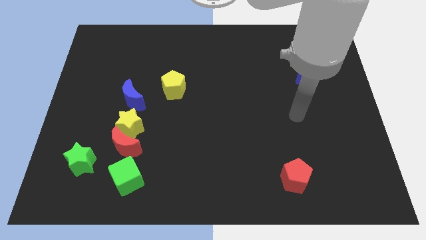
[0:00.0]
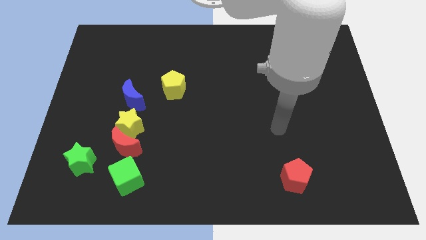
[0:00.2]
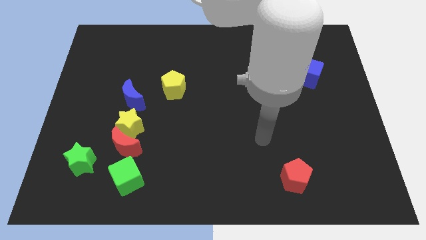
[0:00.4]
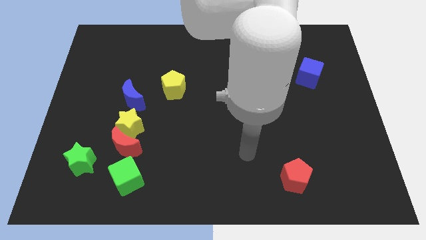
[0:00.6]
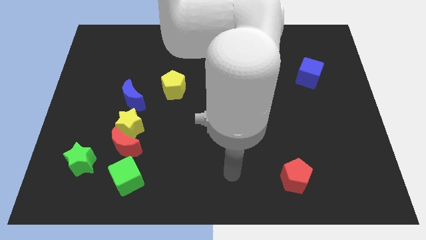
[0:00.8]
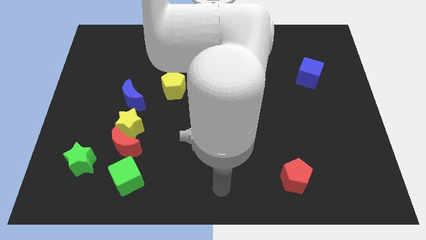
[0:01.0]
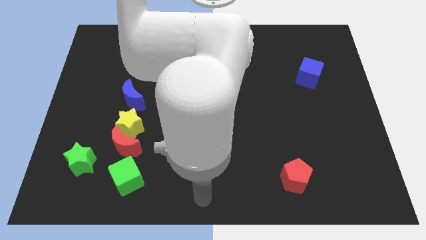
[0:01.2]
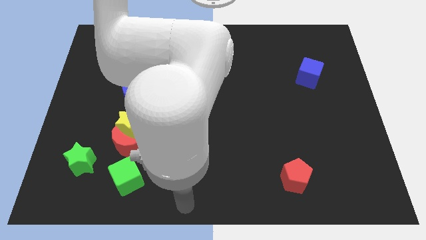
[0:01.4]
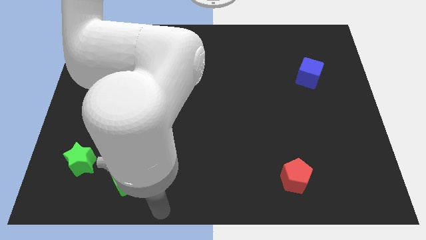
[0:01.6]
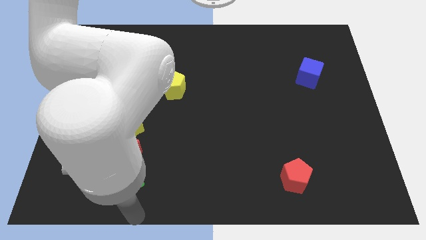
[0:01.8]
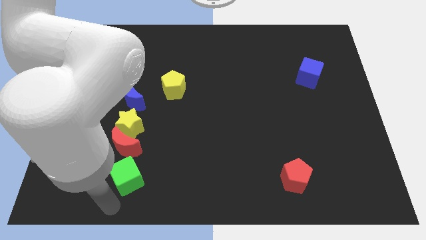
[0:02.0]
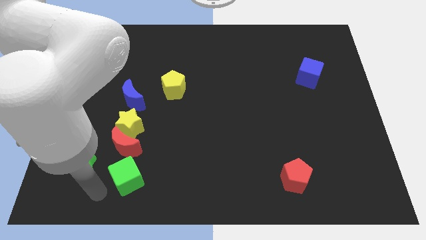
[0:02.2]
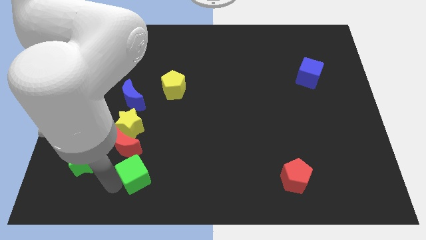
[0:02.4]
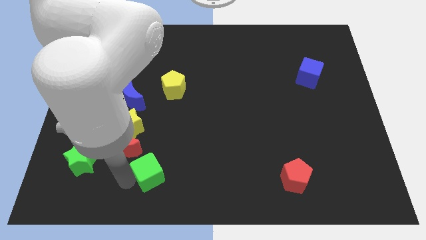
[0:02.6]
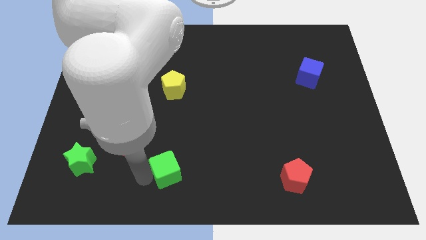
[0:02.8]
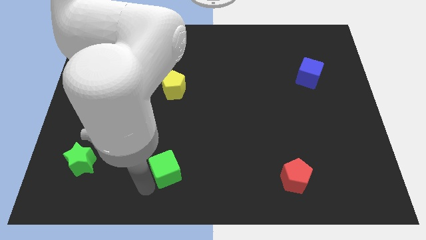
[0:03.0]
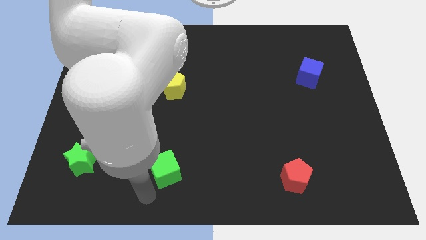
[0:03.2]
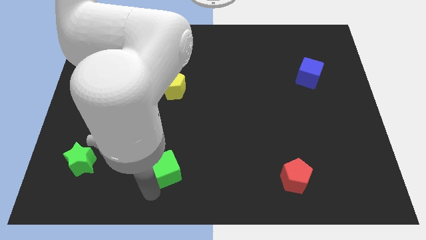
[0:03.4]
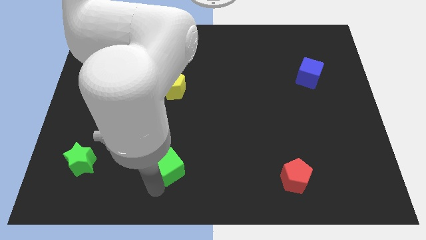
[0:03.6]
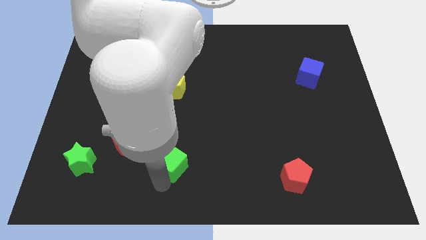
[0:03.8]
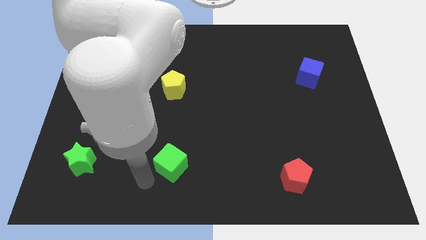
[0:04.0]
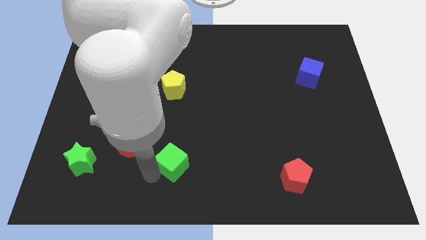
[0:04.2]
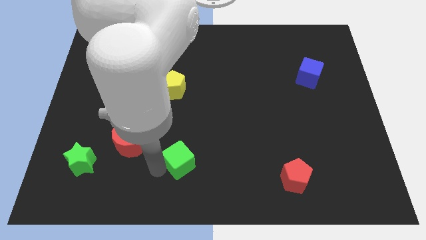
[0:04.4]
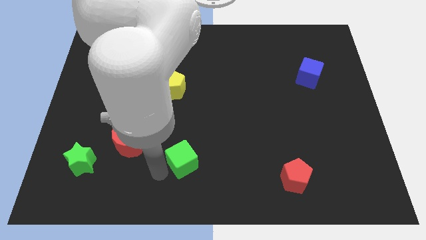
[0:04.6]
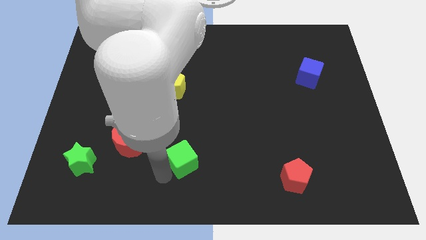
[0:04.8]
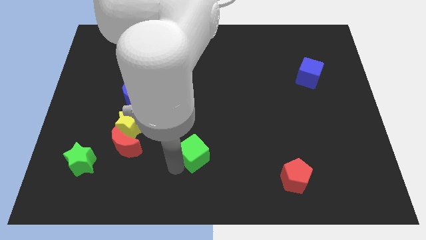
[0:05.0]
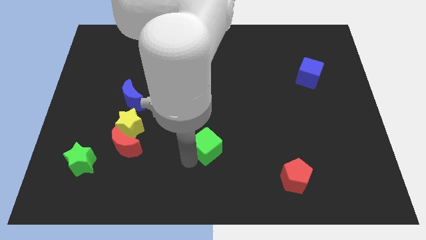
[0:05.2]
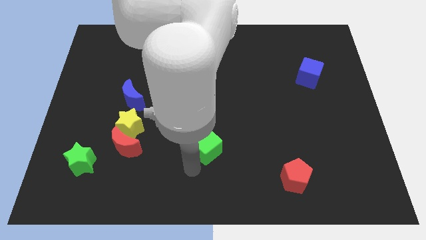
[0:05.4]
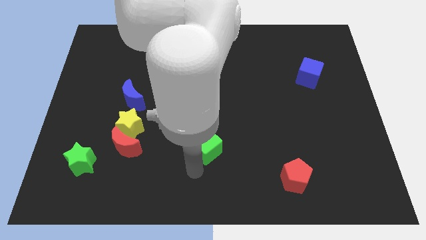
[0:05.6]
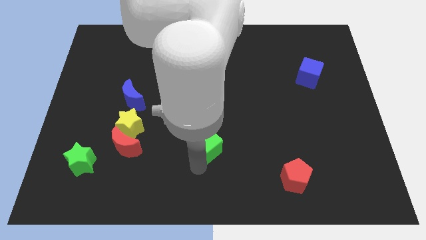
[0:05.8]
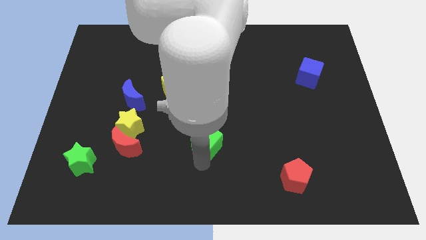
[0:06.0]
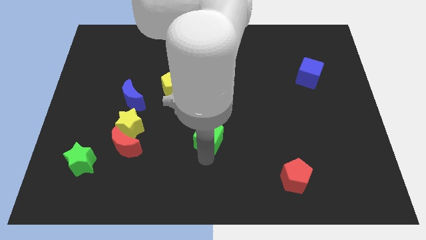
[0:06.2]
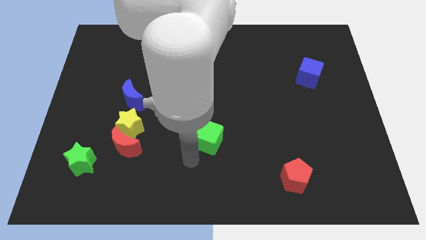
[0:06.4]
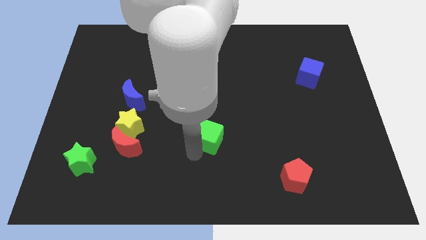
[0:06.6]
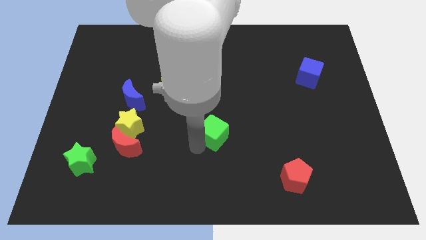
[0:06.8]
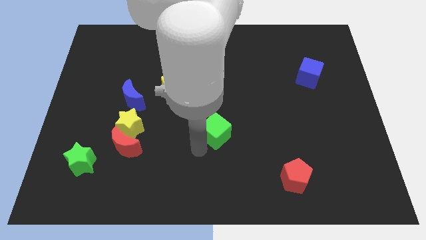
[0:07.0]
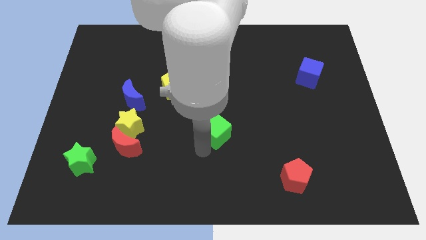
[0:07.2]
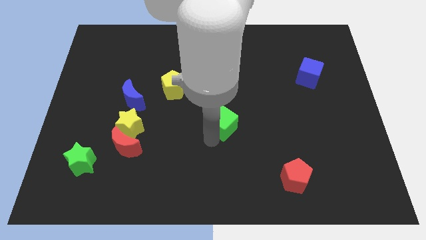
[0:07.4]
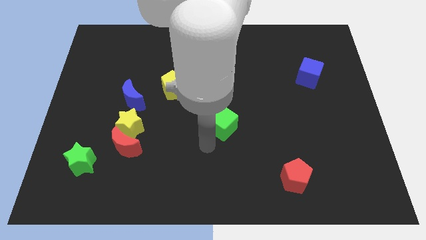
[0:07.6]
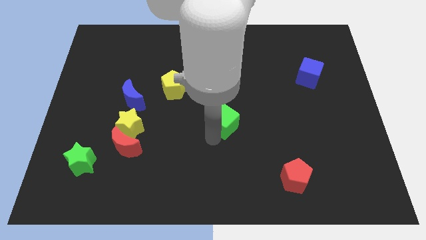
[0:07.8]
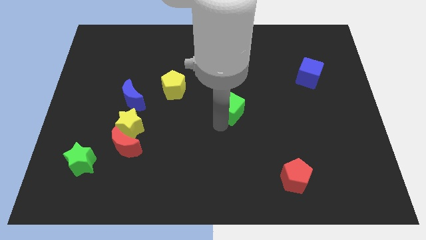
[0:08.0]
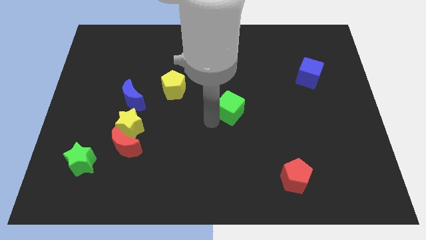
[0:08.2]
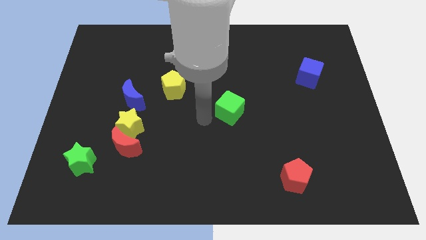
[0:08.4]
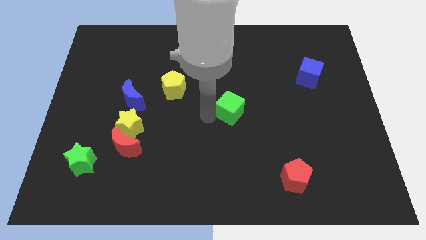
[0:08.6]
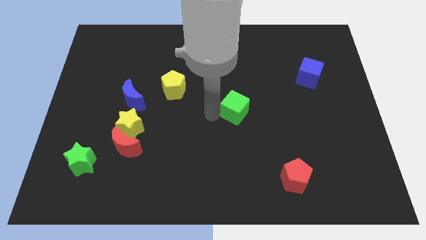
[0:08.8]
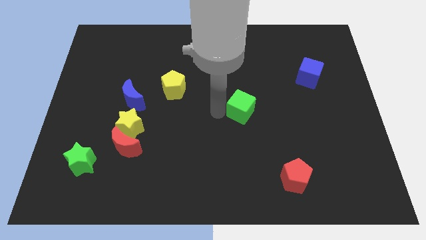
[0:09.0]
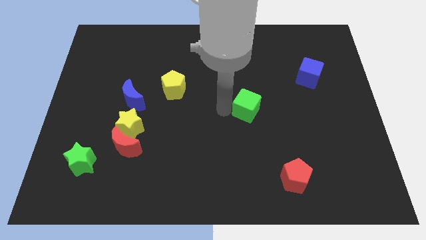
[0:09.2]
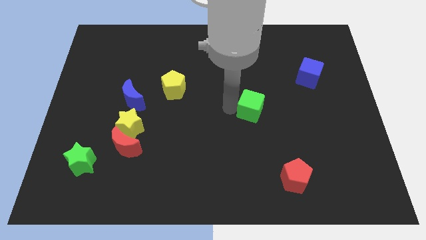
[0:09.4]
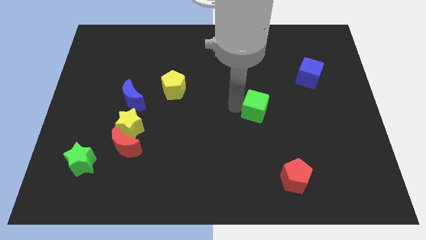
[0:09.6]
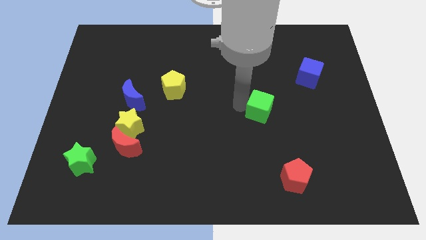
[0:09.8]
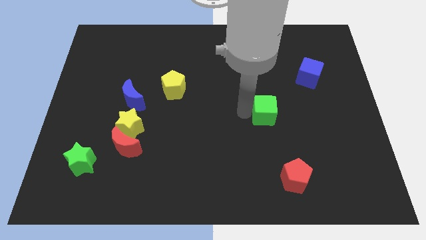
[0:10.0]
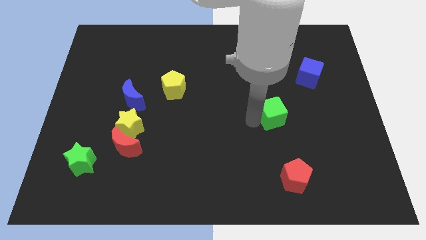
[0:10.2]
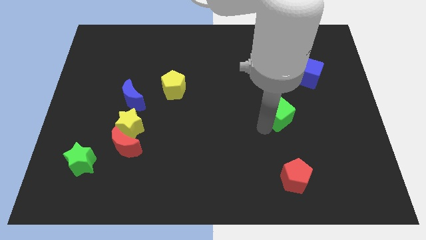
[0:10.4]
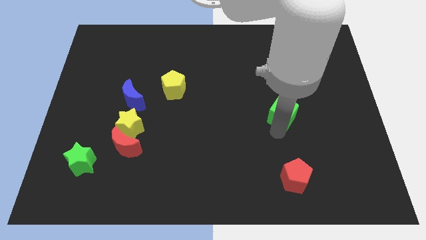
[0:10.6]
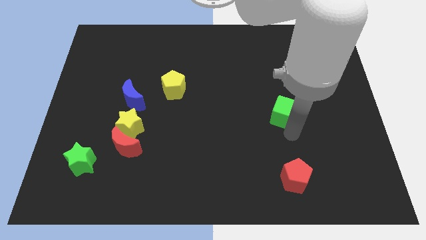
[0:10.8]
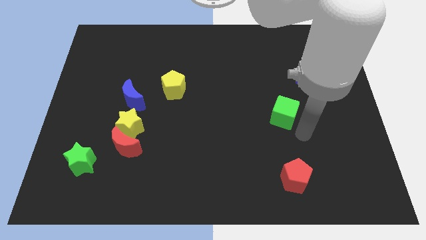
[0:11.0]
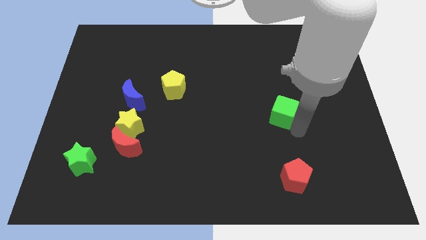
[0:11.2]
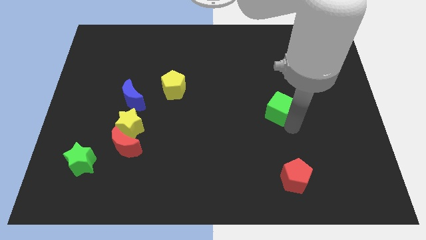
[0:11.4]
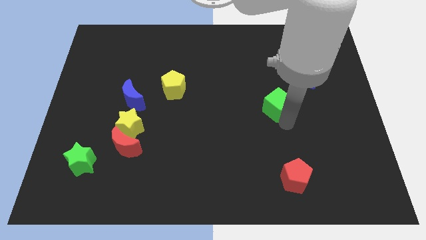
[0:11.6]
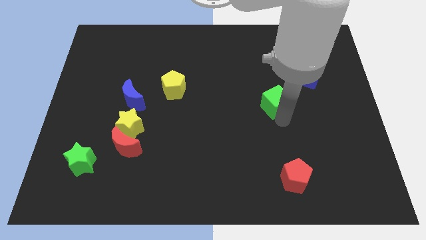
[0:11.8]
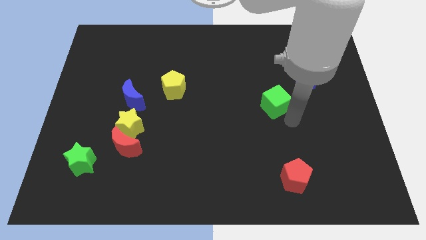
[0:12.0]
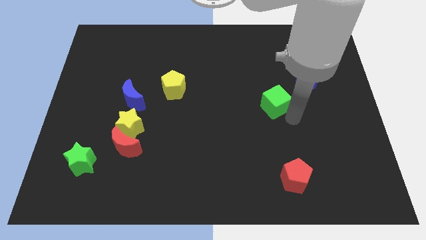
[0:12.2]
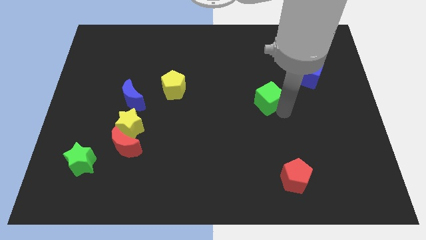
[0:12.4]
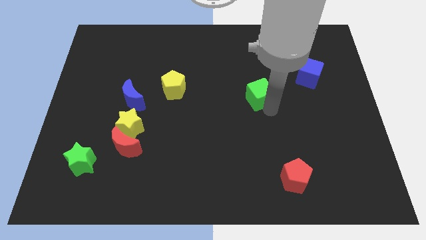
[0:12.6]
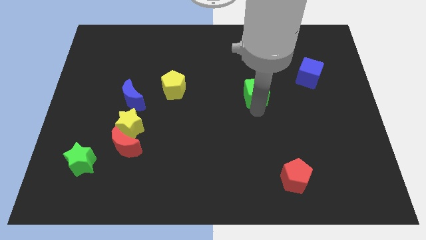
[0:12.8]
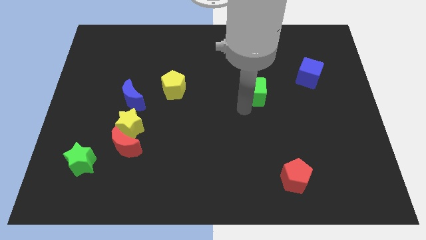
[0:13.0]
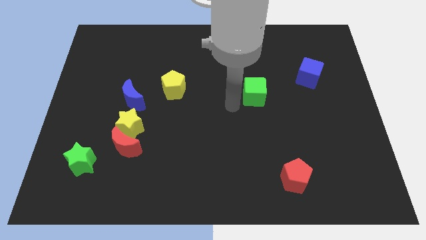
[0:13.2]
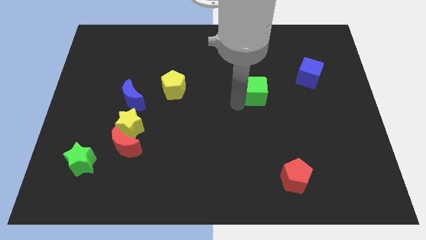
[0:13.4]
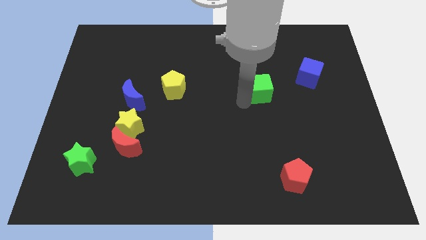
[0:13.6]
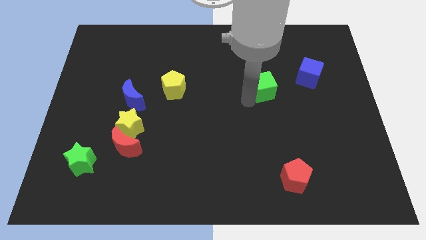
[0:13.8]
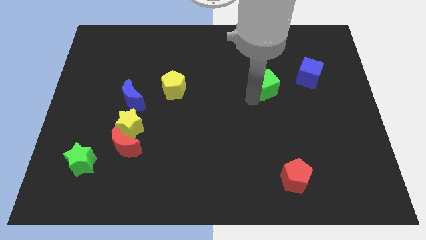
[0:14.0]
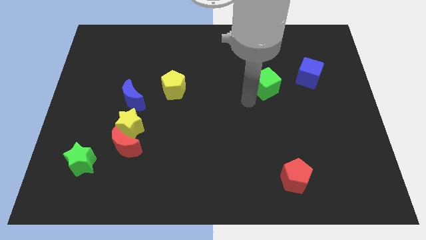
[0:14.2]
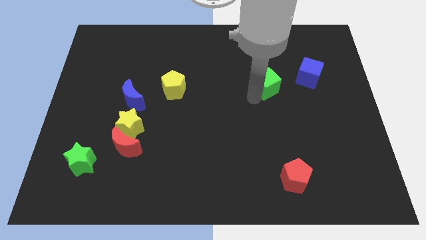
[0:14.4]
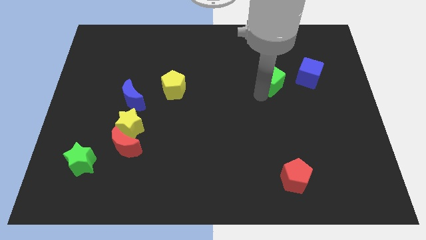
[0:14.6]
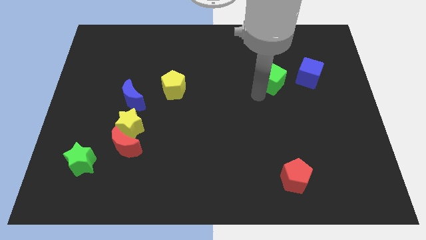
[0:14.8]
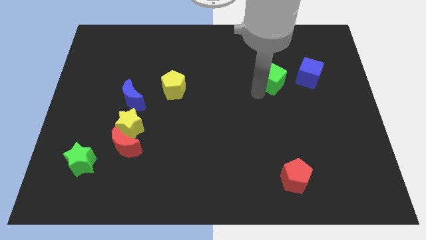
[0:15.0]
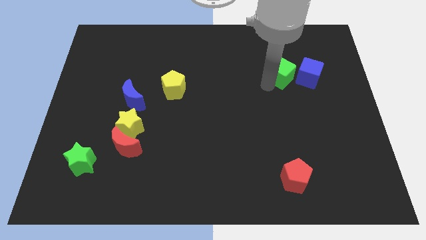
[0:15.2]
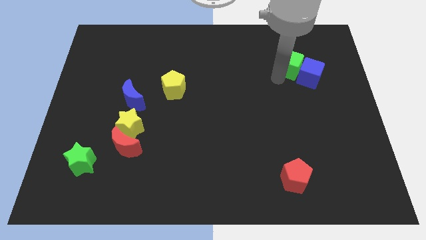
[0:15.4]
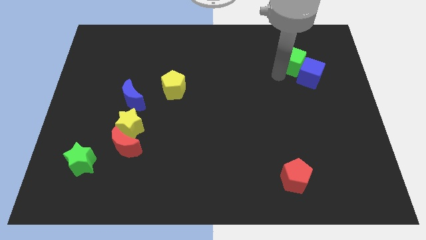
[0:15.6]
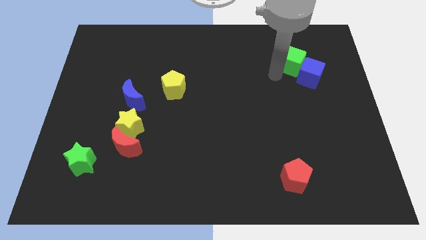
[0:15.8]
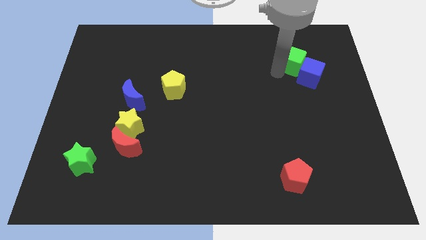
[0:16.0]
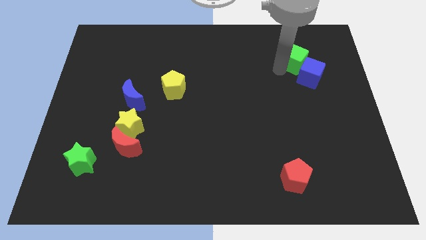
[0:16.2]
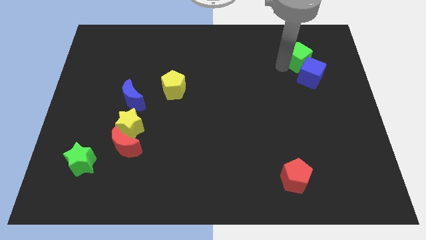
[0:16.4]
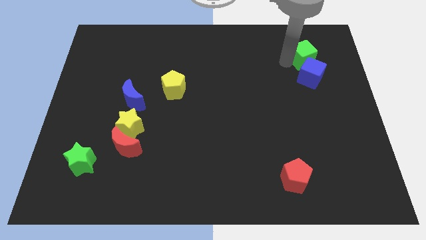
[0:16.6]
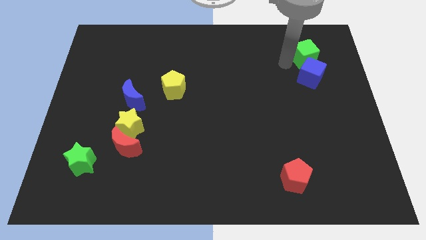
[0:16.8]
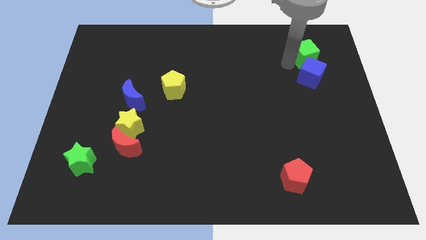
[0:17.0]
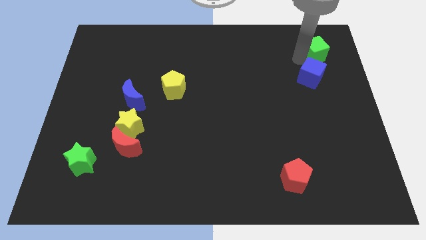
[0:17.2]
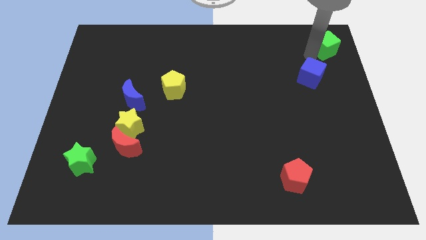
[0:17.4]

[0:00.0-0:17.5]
slide the green cube to the top right of the board
